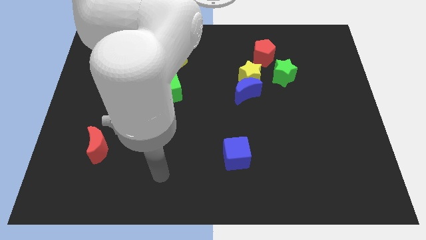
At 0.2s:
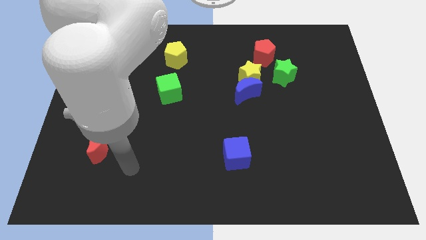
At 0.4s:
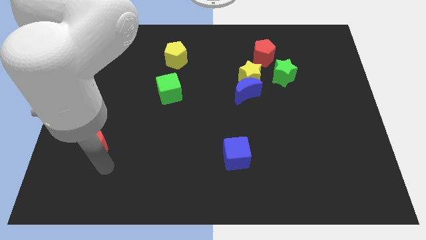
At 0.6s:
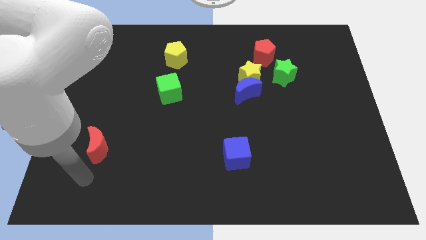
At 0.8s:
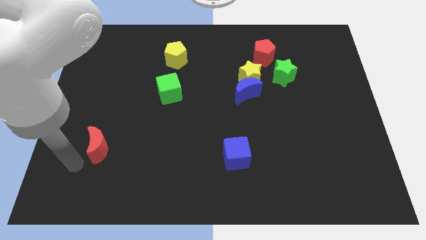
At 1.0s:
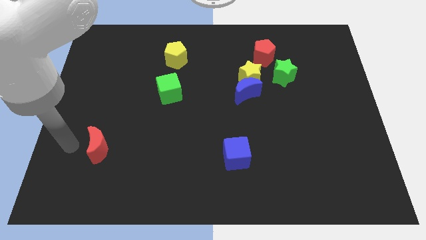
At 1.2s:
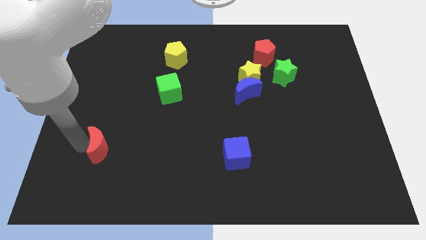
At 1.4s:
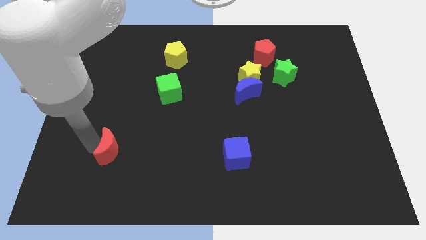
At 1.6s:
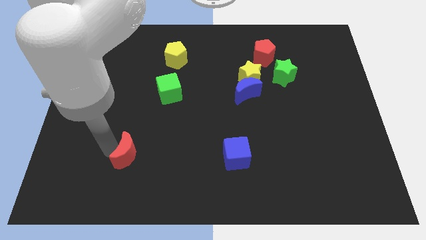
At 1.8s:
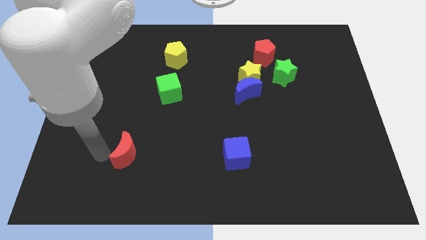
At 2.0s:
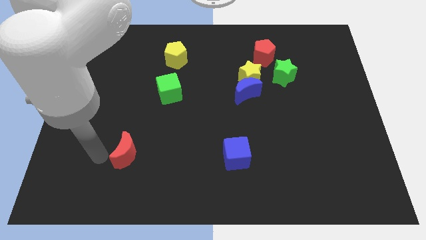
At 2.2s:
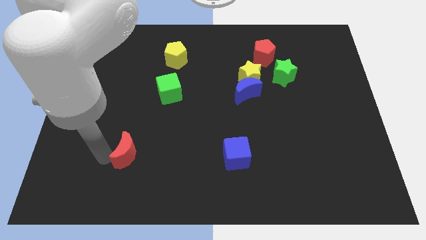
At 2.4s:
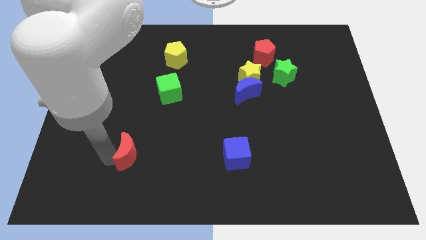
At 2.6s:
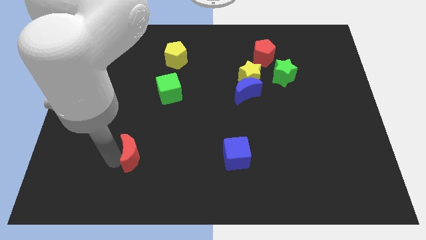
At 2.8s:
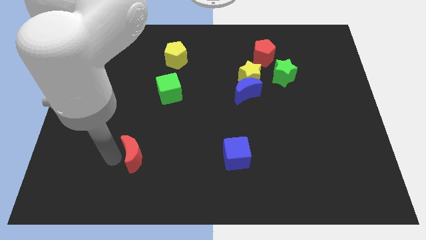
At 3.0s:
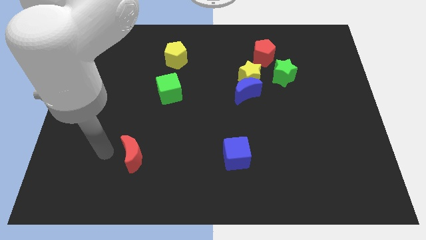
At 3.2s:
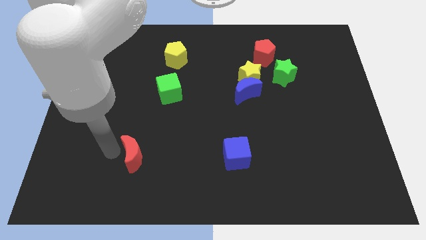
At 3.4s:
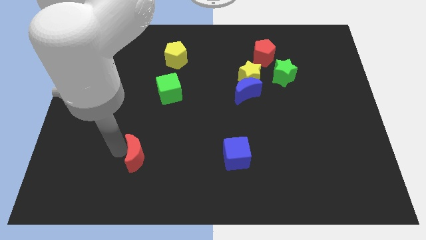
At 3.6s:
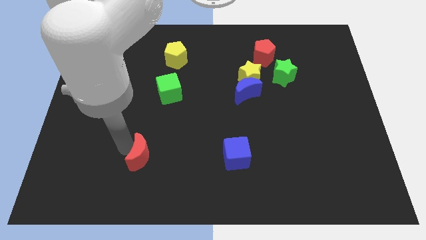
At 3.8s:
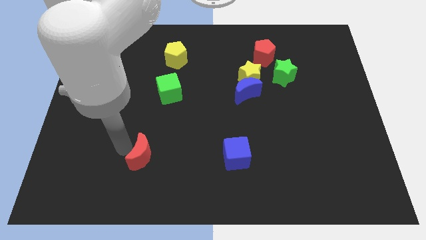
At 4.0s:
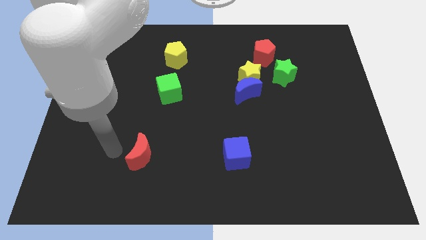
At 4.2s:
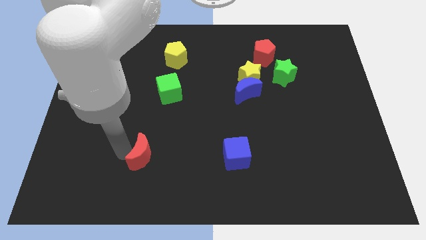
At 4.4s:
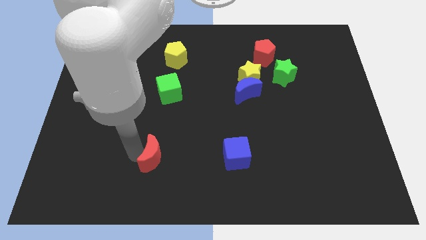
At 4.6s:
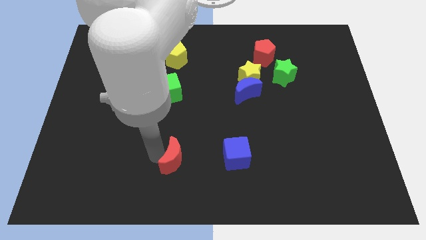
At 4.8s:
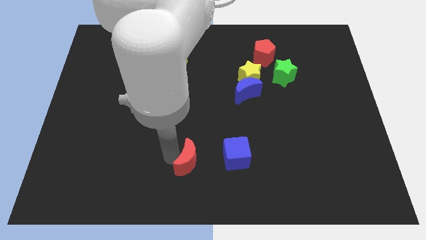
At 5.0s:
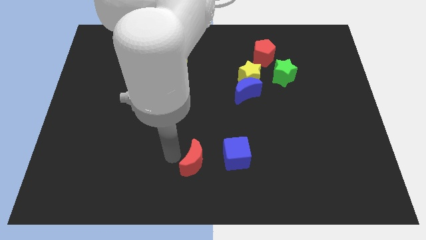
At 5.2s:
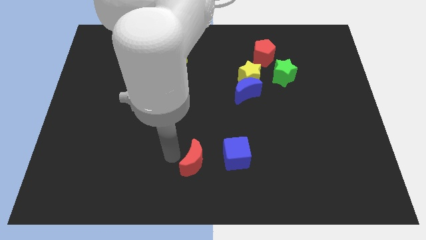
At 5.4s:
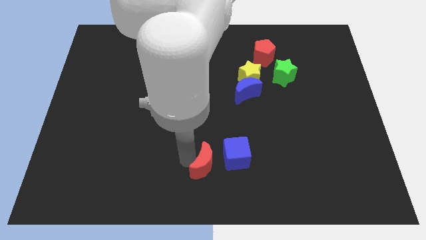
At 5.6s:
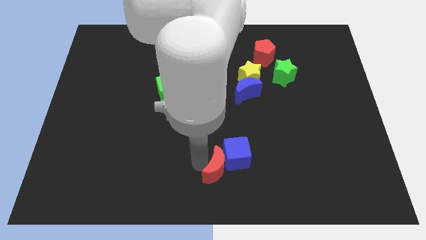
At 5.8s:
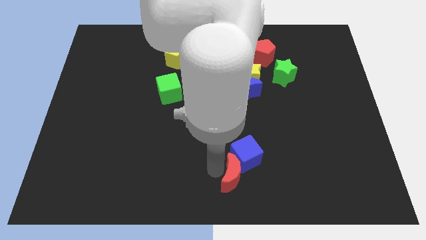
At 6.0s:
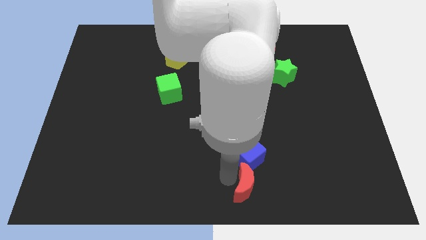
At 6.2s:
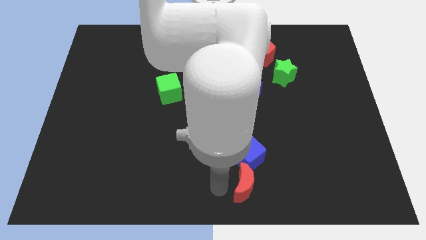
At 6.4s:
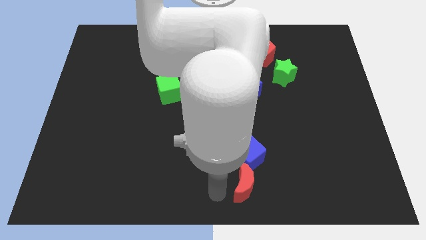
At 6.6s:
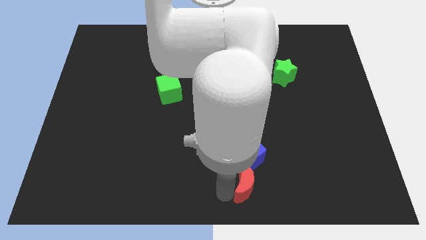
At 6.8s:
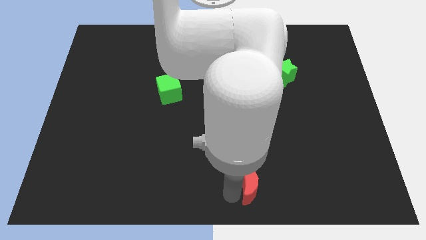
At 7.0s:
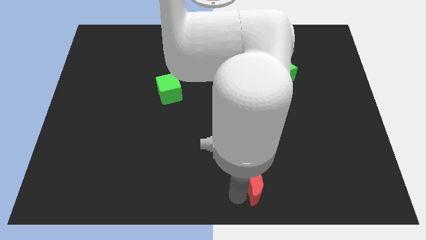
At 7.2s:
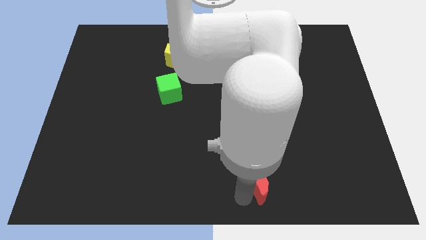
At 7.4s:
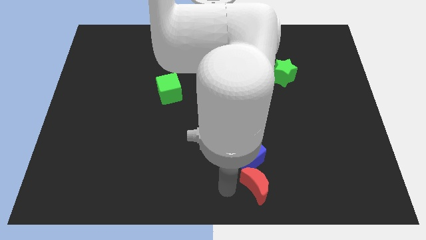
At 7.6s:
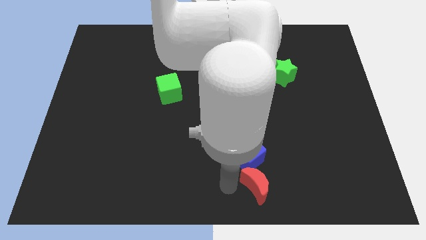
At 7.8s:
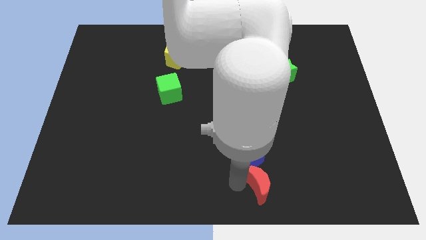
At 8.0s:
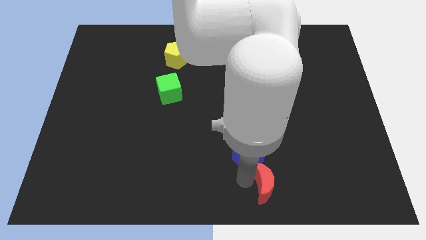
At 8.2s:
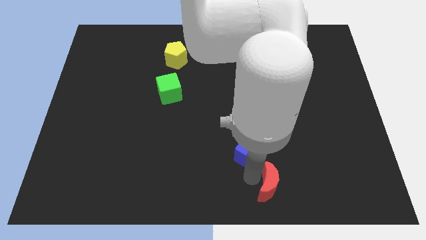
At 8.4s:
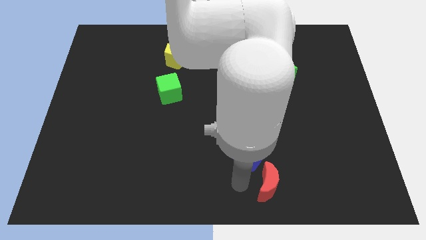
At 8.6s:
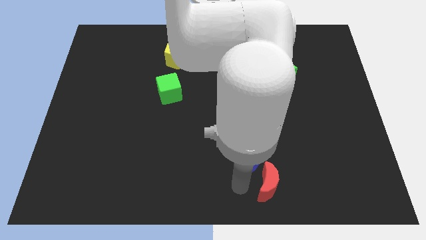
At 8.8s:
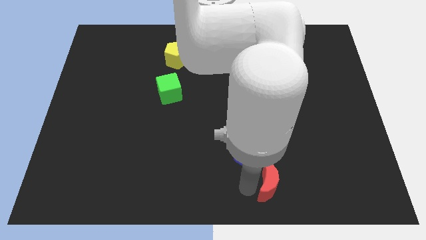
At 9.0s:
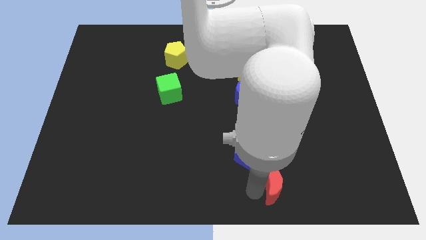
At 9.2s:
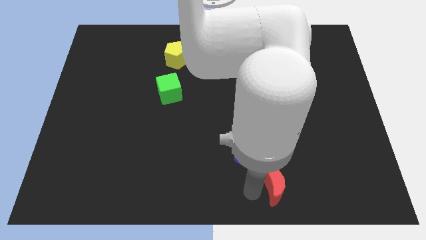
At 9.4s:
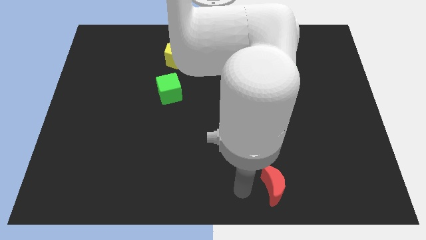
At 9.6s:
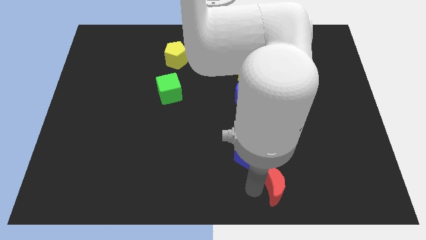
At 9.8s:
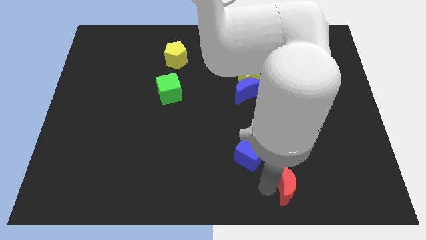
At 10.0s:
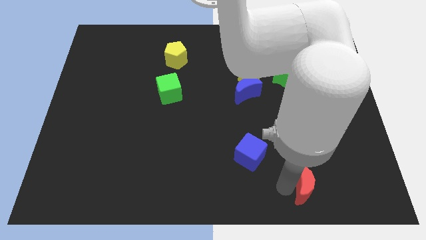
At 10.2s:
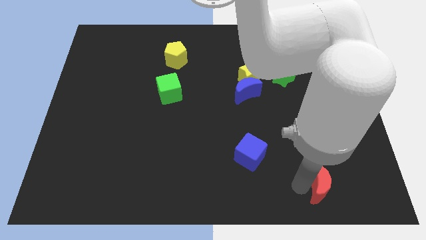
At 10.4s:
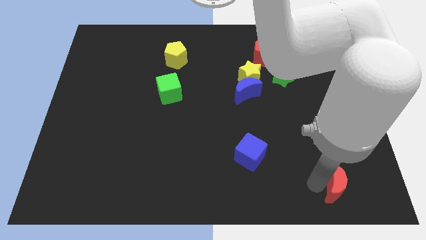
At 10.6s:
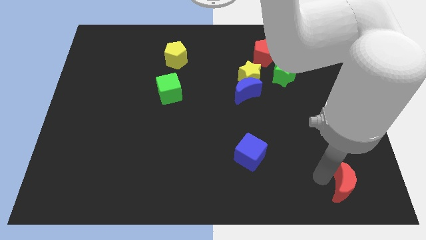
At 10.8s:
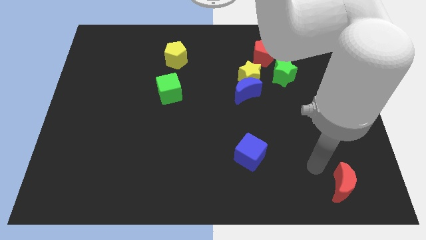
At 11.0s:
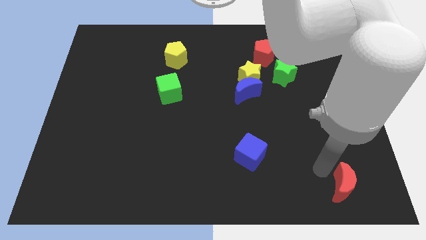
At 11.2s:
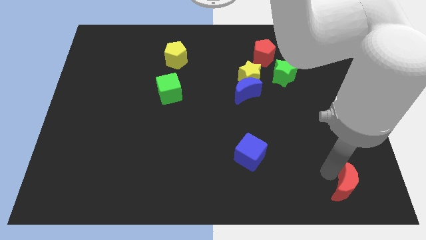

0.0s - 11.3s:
move the red moon to the lower right corner

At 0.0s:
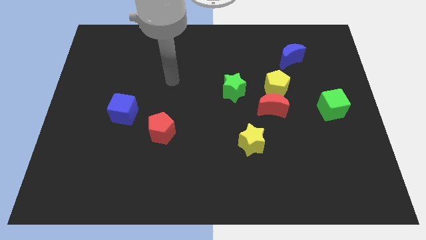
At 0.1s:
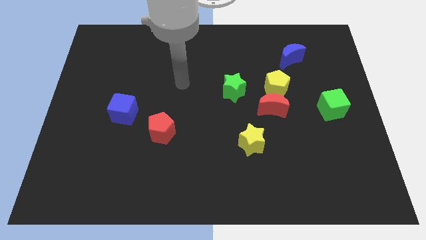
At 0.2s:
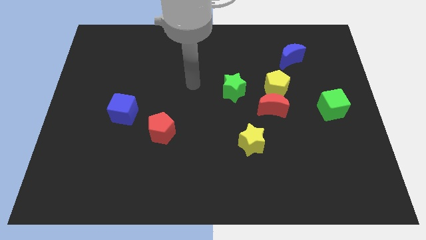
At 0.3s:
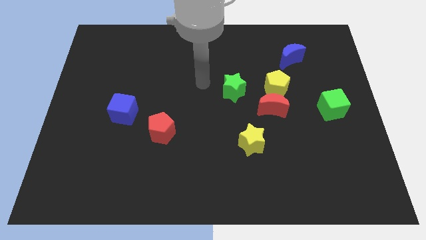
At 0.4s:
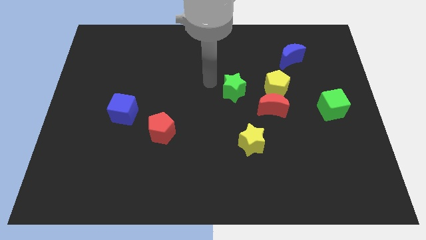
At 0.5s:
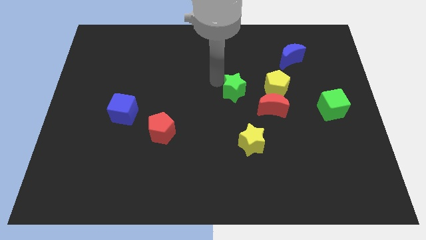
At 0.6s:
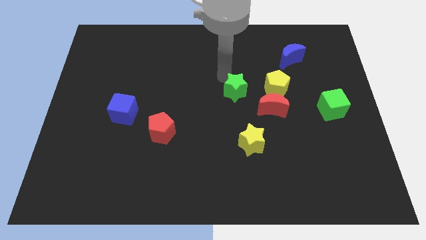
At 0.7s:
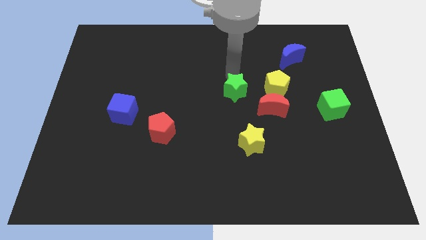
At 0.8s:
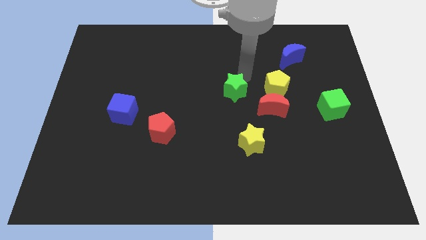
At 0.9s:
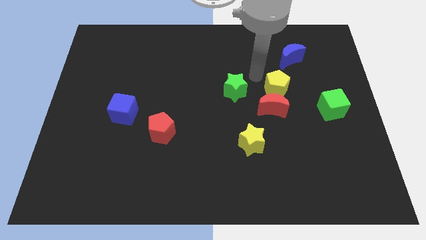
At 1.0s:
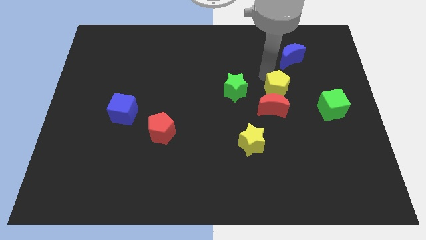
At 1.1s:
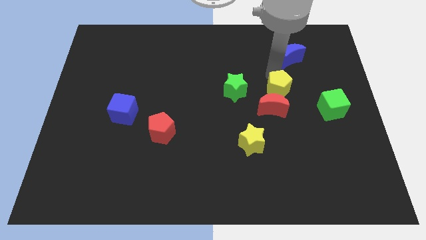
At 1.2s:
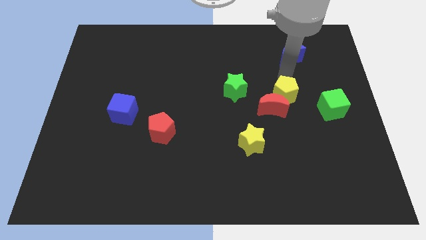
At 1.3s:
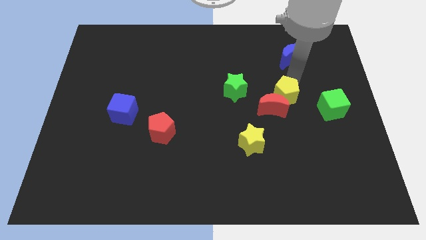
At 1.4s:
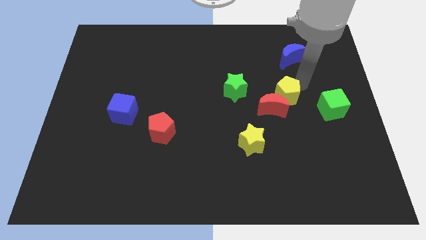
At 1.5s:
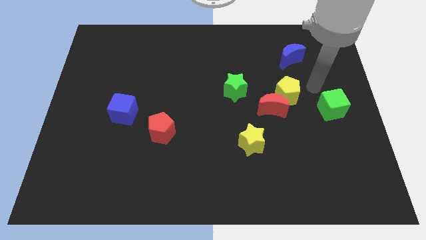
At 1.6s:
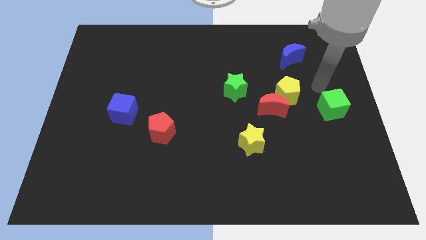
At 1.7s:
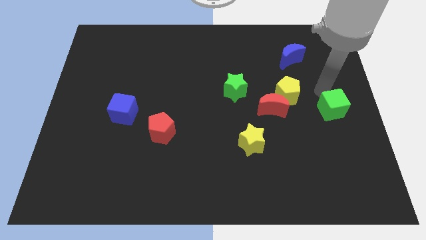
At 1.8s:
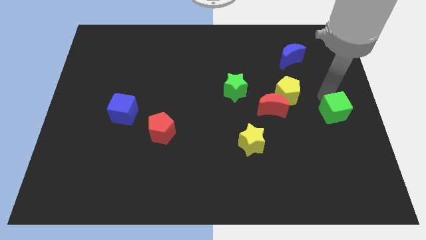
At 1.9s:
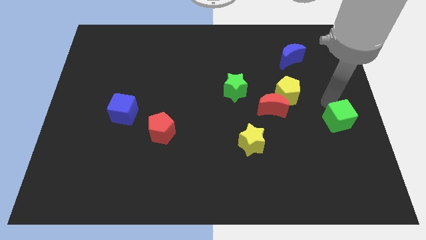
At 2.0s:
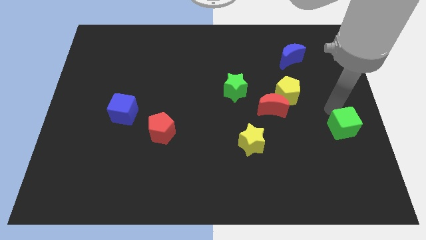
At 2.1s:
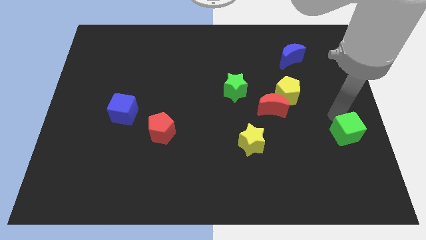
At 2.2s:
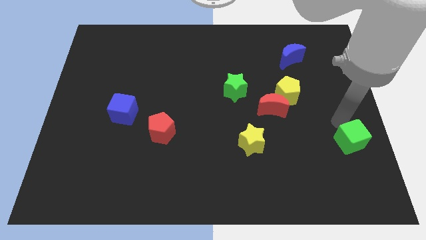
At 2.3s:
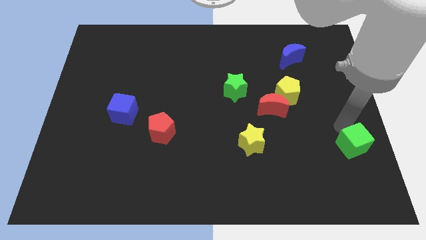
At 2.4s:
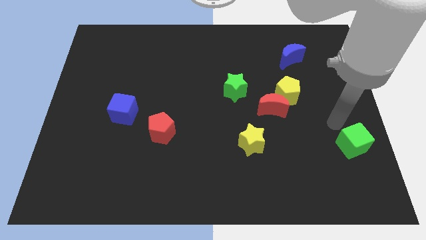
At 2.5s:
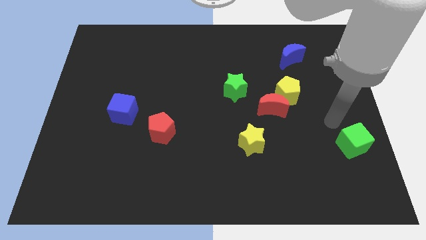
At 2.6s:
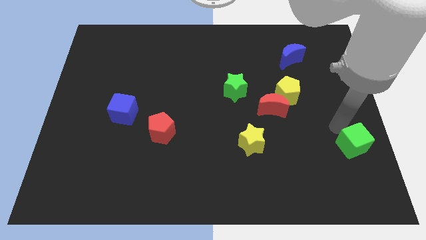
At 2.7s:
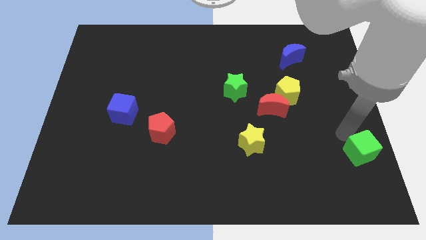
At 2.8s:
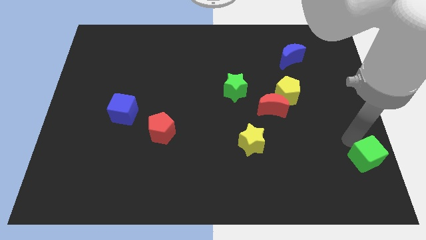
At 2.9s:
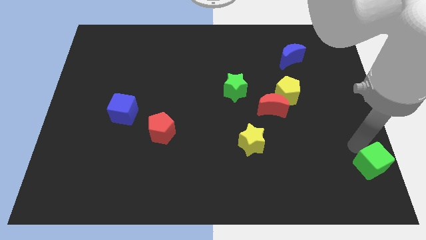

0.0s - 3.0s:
push the green cube to the bottom right corner
